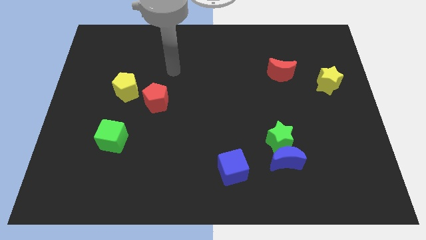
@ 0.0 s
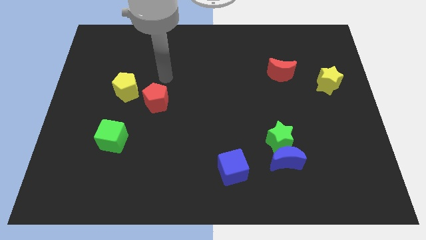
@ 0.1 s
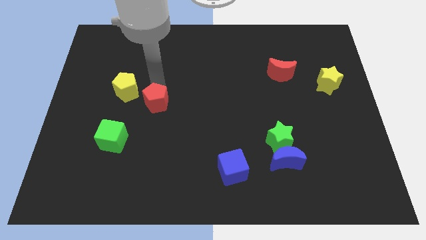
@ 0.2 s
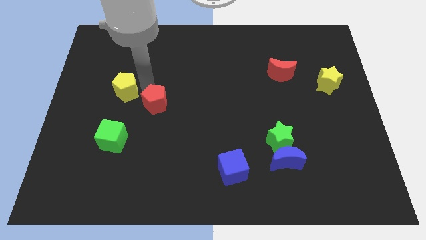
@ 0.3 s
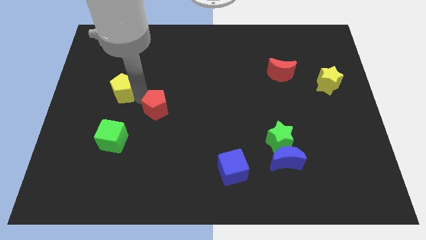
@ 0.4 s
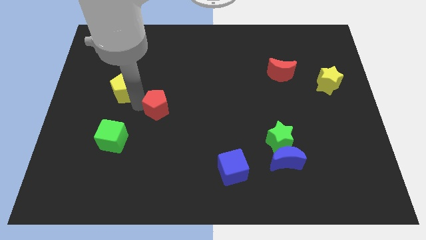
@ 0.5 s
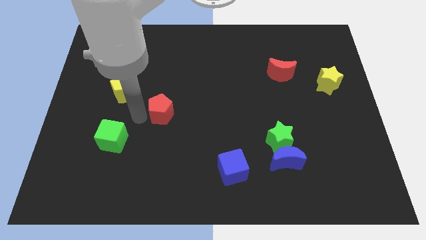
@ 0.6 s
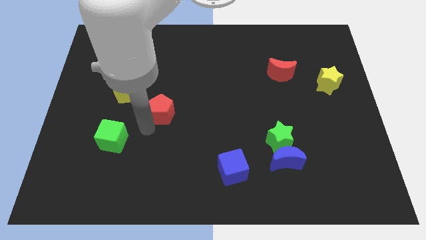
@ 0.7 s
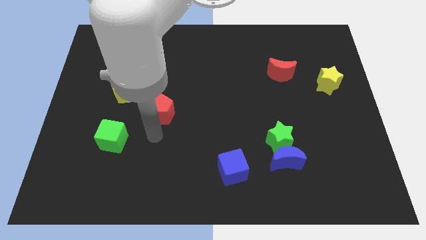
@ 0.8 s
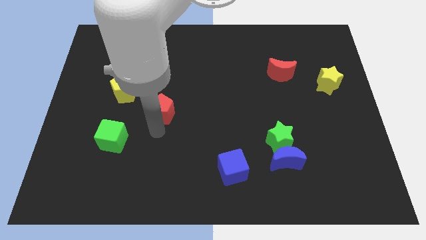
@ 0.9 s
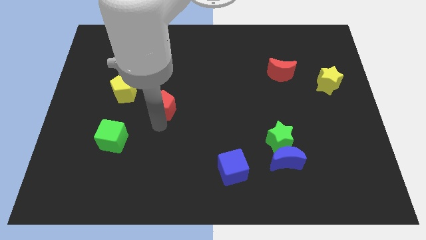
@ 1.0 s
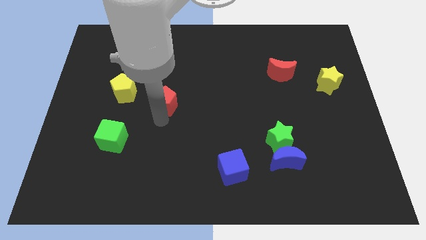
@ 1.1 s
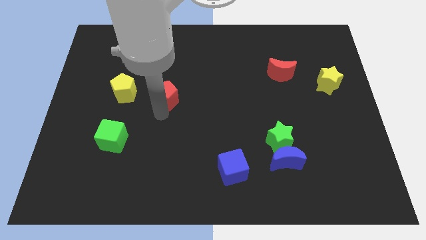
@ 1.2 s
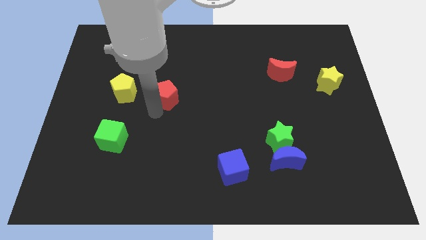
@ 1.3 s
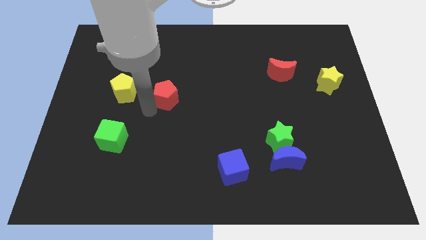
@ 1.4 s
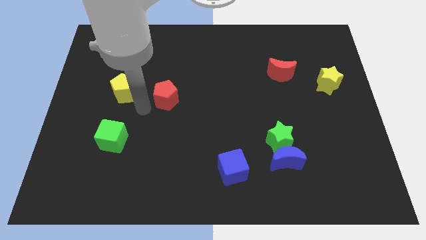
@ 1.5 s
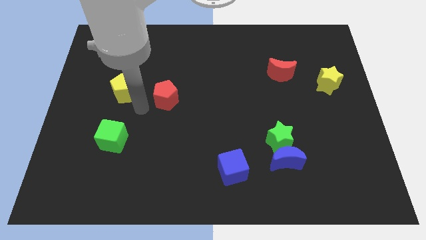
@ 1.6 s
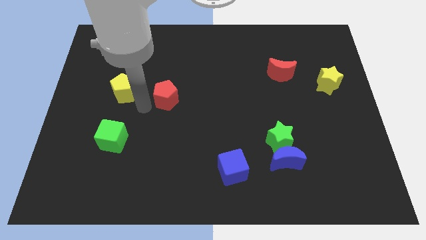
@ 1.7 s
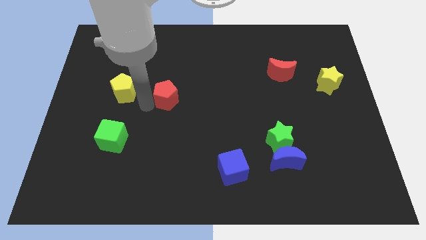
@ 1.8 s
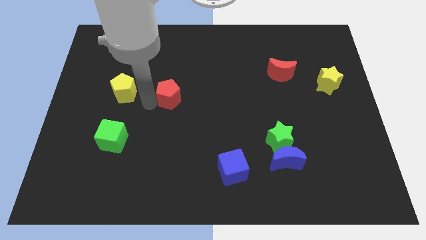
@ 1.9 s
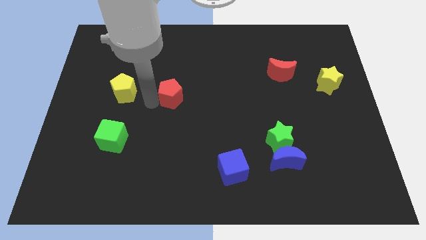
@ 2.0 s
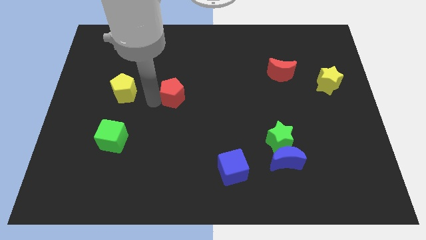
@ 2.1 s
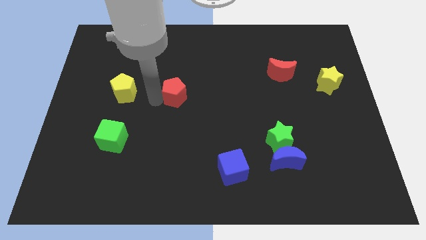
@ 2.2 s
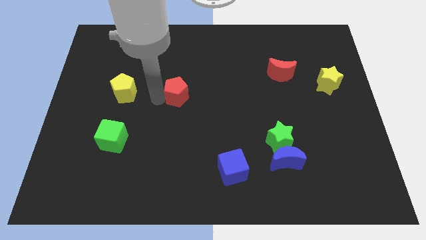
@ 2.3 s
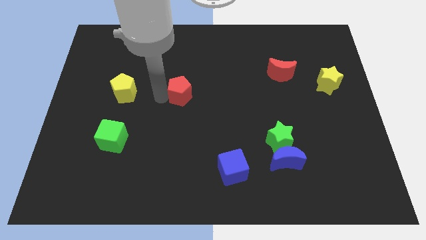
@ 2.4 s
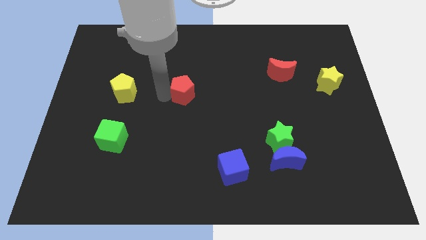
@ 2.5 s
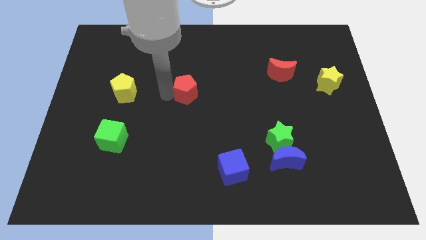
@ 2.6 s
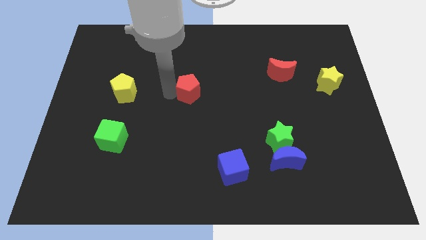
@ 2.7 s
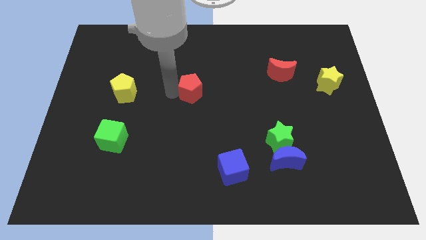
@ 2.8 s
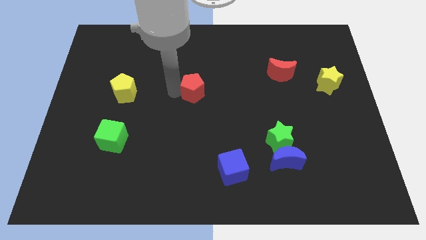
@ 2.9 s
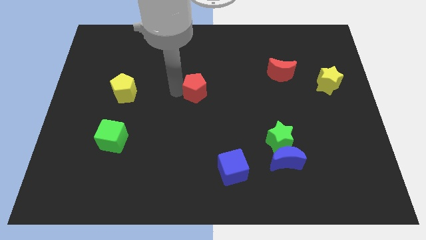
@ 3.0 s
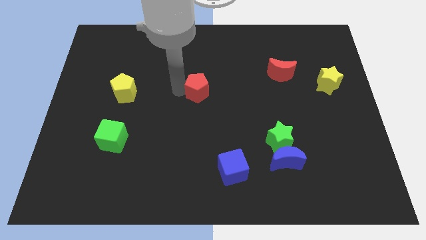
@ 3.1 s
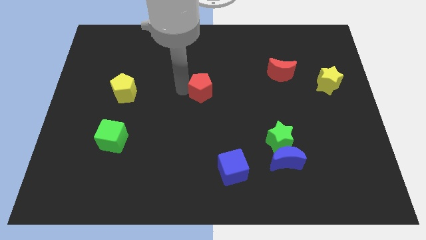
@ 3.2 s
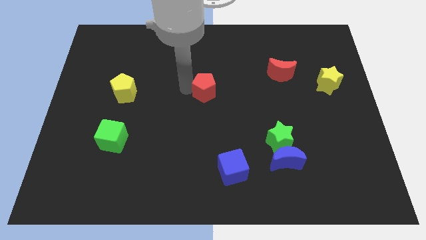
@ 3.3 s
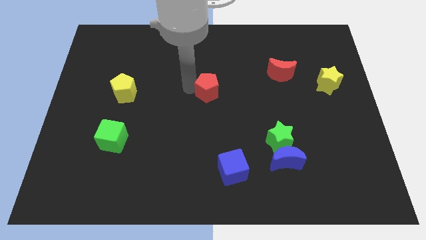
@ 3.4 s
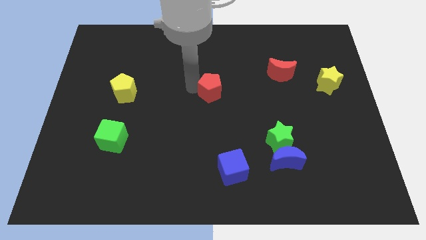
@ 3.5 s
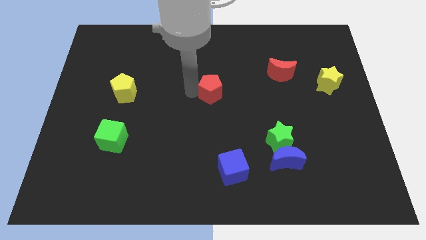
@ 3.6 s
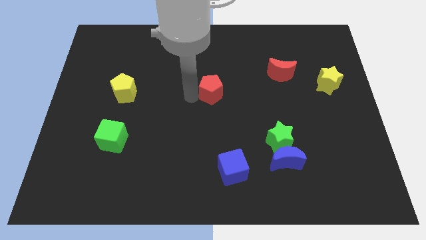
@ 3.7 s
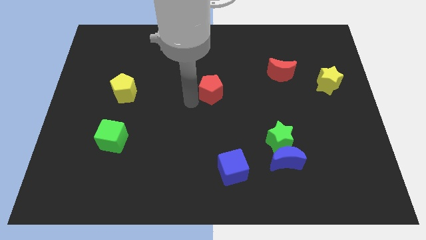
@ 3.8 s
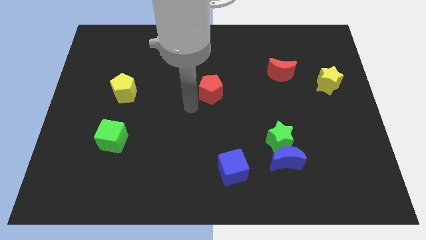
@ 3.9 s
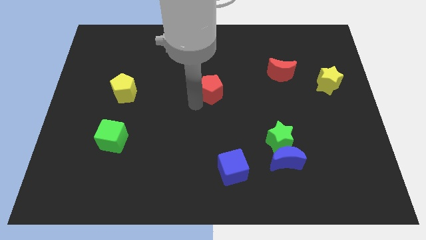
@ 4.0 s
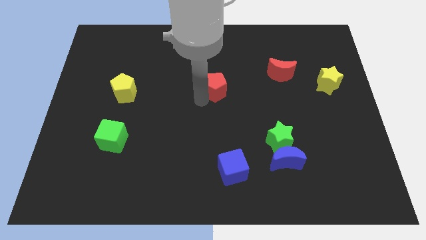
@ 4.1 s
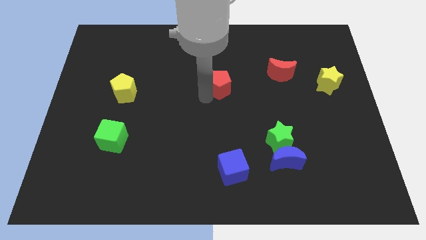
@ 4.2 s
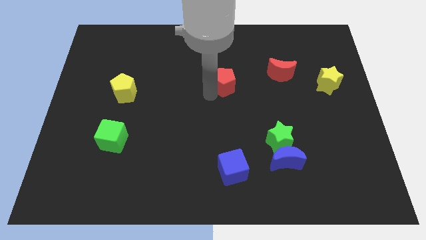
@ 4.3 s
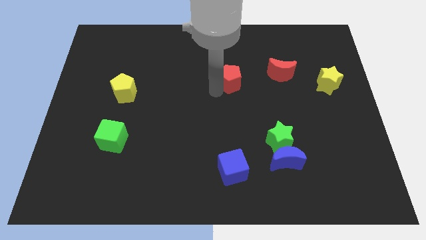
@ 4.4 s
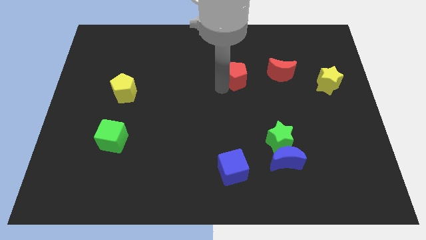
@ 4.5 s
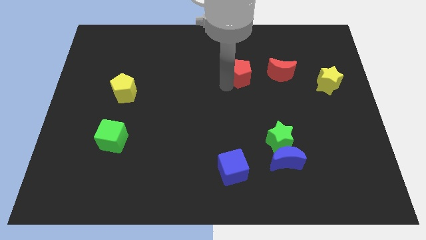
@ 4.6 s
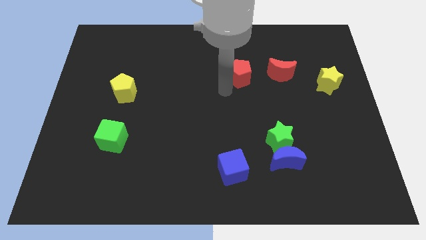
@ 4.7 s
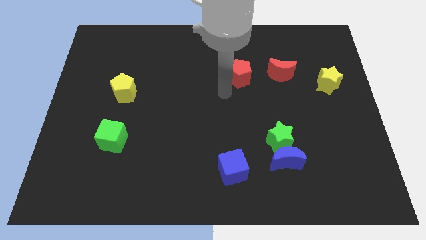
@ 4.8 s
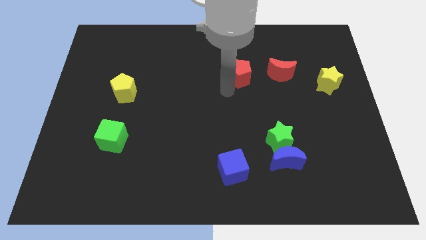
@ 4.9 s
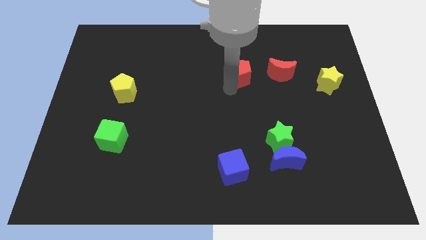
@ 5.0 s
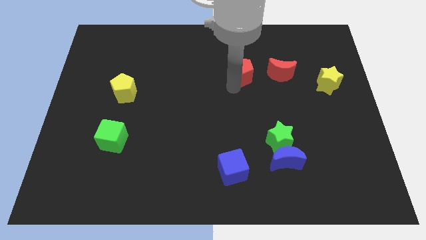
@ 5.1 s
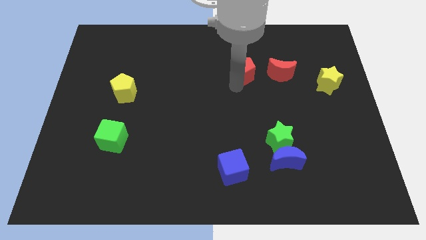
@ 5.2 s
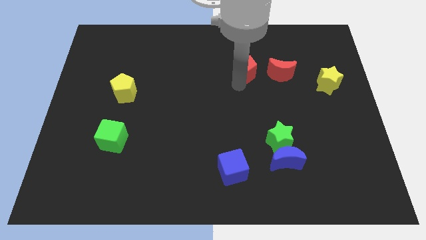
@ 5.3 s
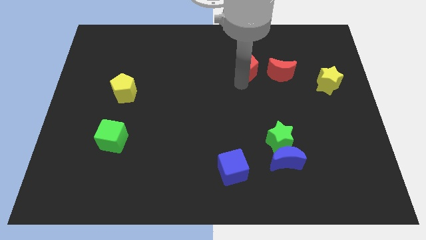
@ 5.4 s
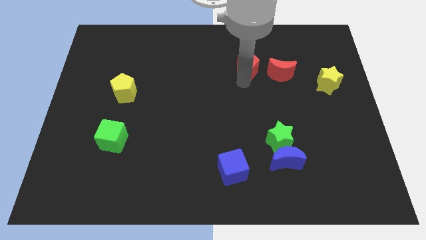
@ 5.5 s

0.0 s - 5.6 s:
move the red pentagon to the top left side of the red moon

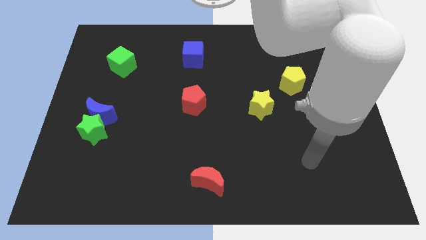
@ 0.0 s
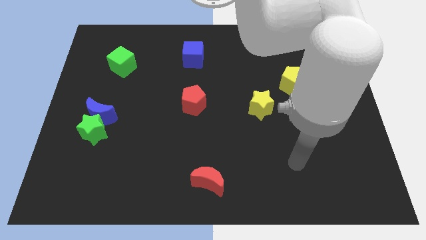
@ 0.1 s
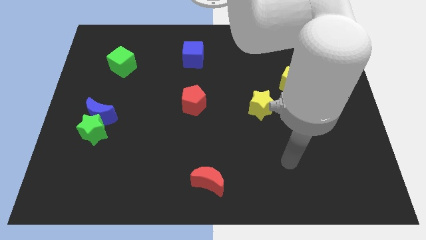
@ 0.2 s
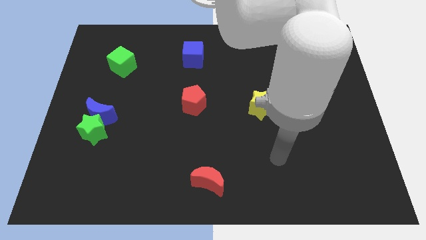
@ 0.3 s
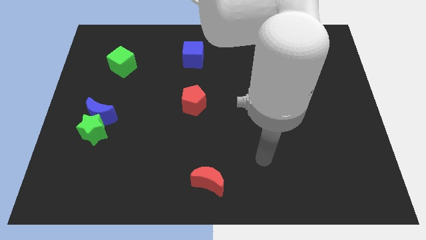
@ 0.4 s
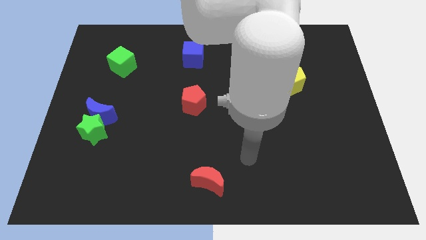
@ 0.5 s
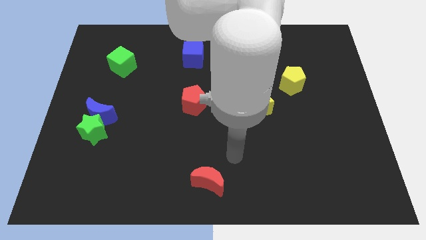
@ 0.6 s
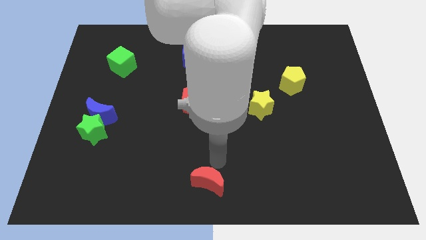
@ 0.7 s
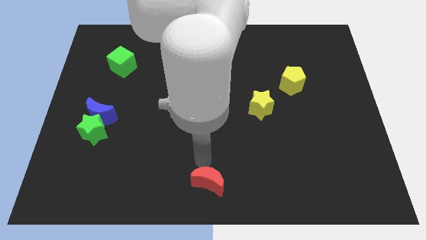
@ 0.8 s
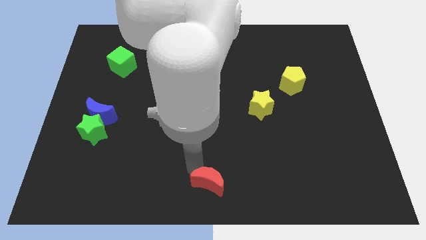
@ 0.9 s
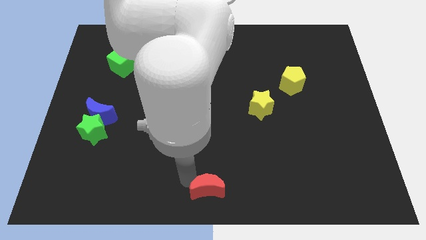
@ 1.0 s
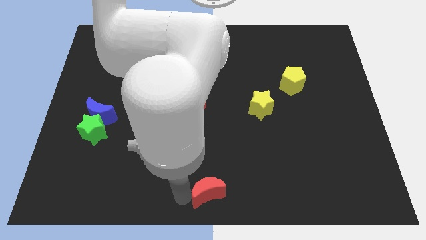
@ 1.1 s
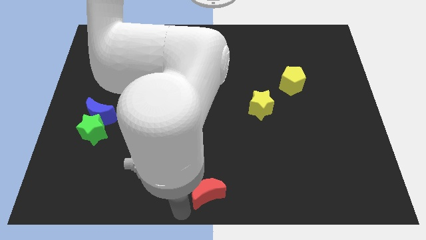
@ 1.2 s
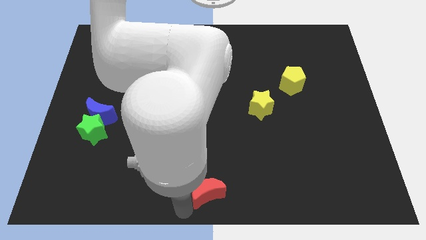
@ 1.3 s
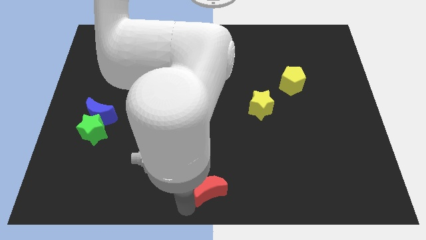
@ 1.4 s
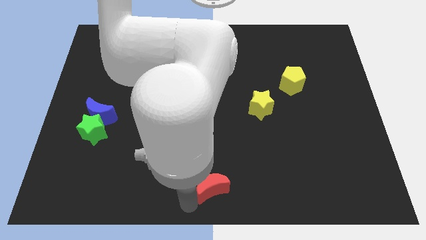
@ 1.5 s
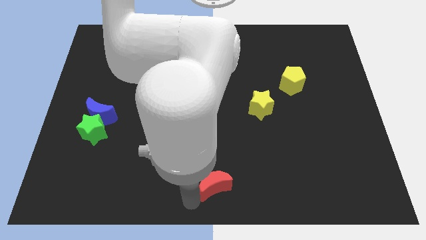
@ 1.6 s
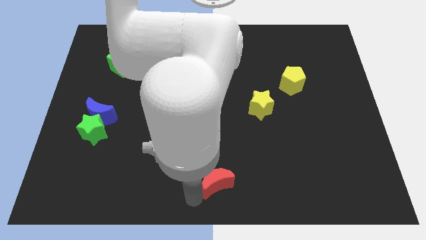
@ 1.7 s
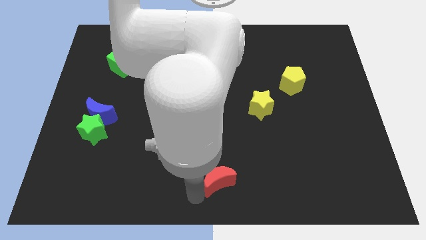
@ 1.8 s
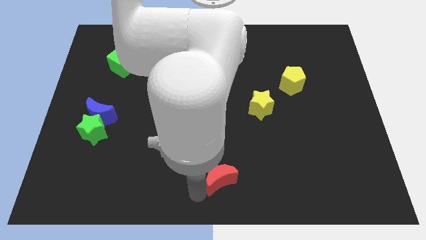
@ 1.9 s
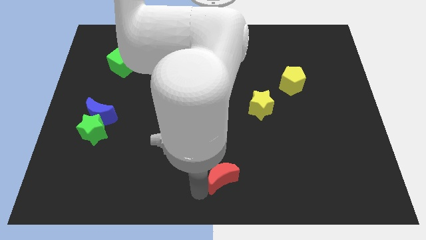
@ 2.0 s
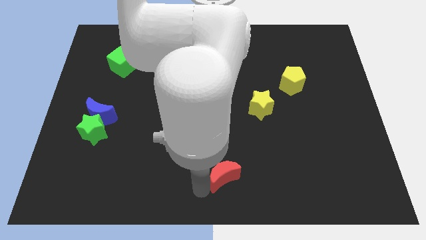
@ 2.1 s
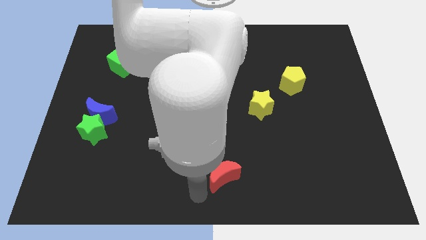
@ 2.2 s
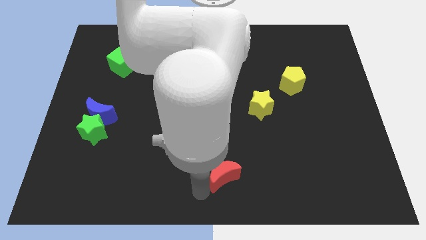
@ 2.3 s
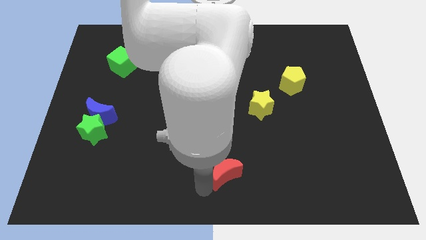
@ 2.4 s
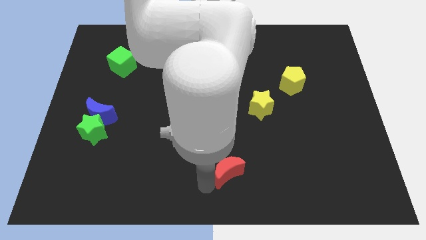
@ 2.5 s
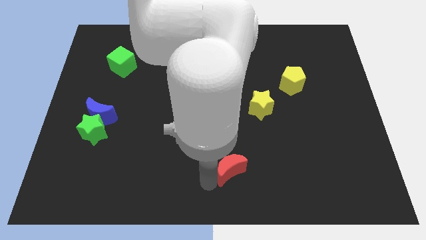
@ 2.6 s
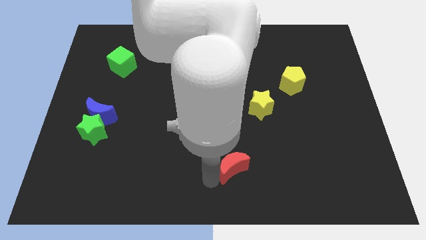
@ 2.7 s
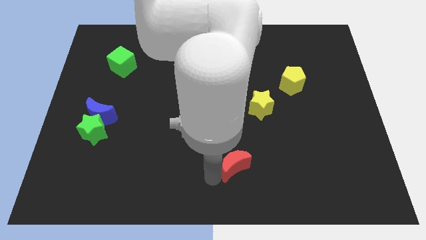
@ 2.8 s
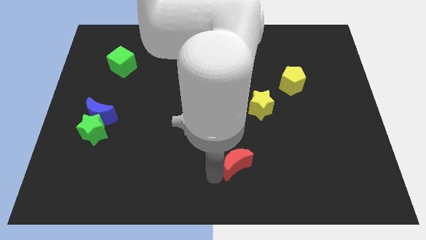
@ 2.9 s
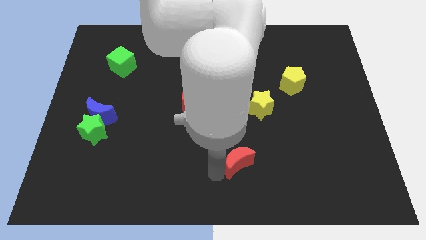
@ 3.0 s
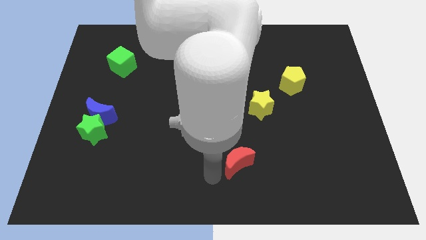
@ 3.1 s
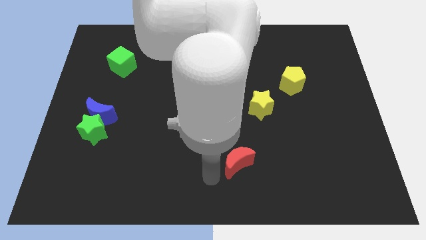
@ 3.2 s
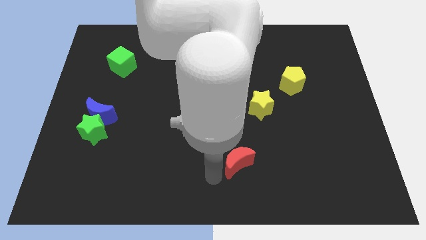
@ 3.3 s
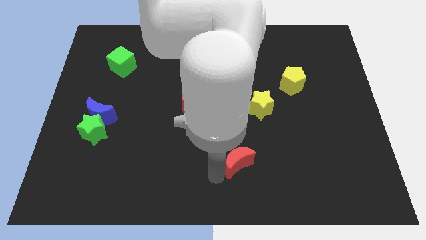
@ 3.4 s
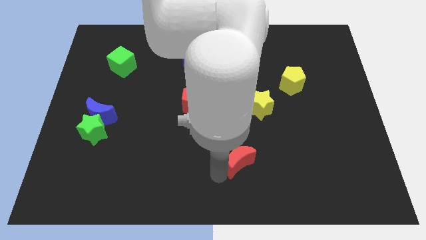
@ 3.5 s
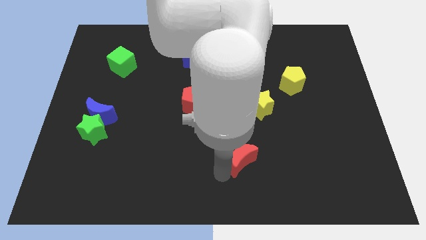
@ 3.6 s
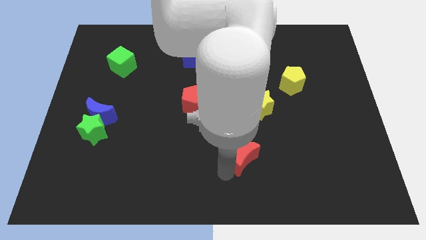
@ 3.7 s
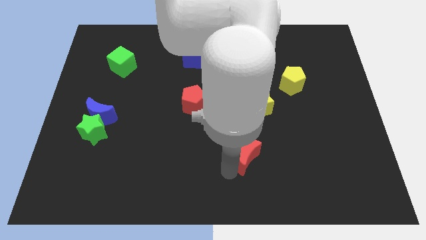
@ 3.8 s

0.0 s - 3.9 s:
slide the red moon to the bottom of the yellow star
